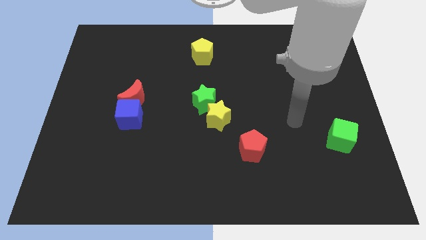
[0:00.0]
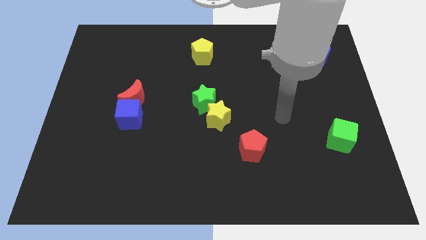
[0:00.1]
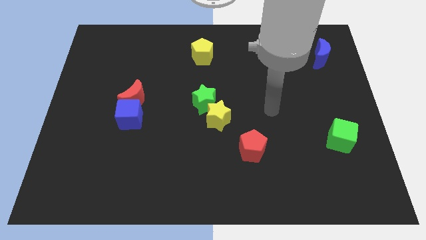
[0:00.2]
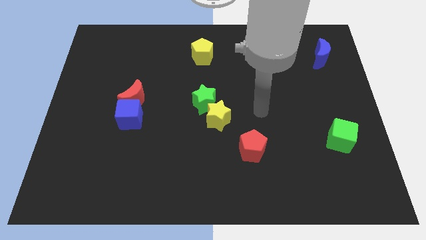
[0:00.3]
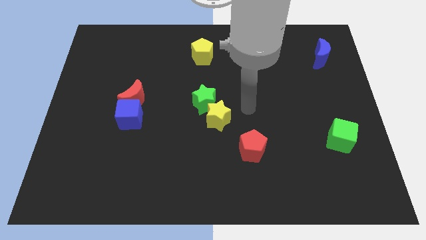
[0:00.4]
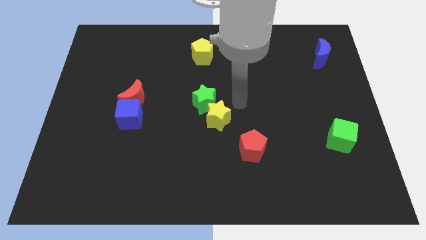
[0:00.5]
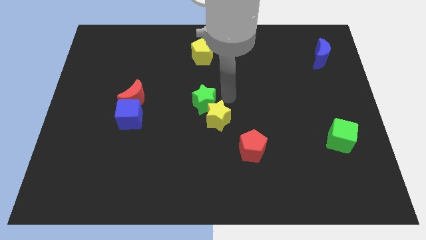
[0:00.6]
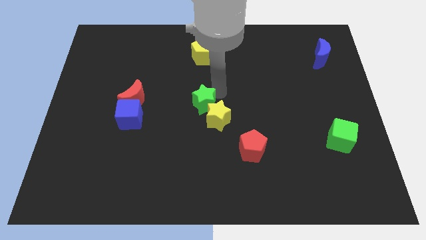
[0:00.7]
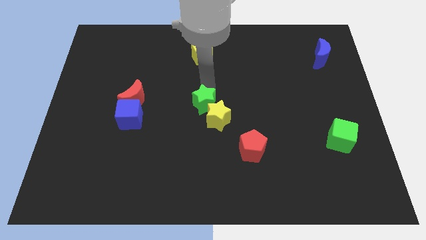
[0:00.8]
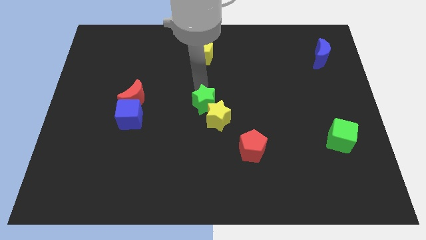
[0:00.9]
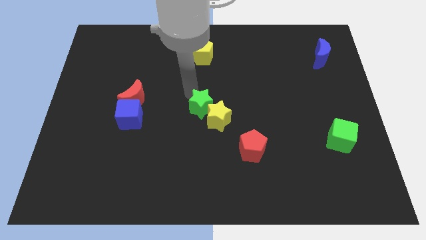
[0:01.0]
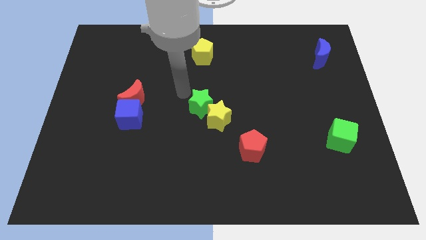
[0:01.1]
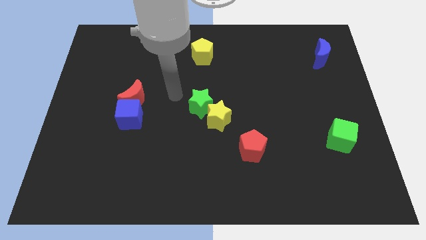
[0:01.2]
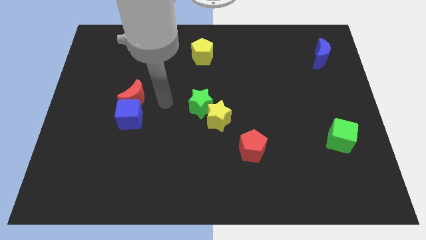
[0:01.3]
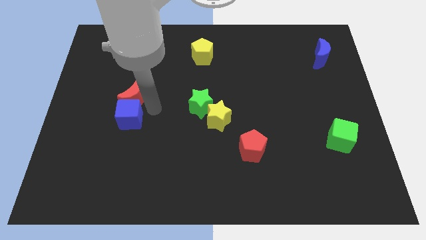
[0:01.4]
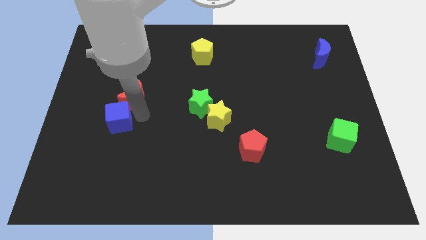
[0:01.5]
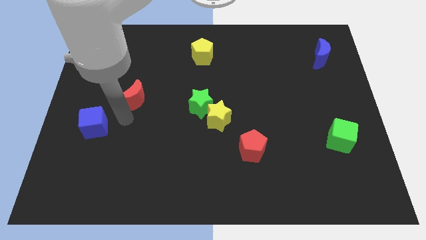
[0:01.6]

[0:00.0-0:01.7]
pull the red moon apart from the blue cube

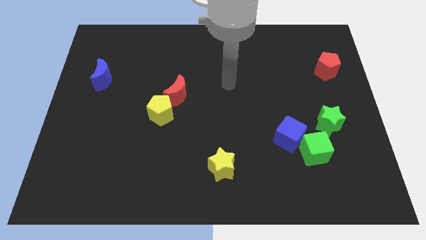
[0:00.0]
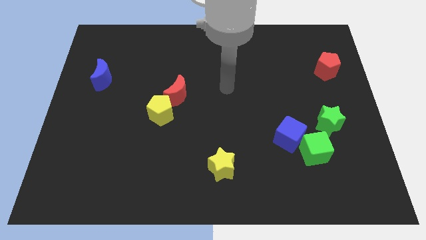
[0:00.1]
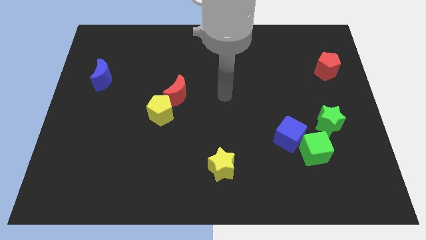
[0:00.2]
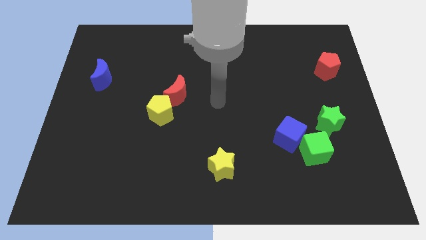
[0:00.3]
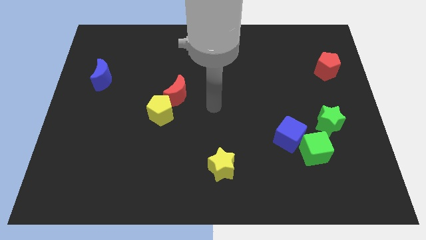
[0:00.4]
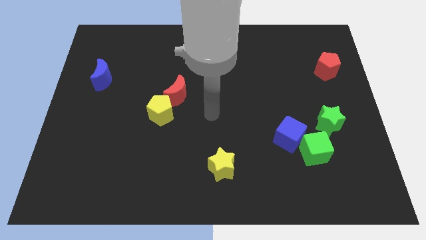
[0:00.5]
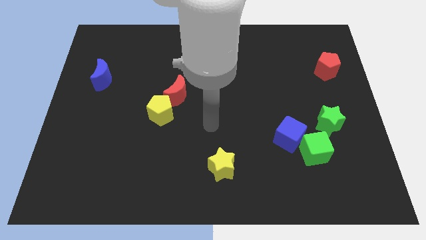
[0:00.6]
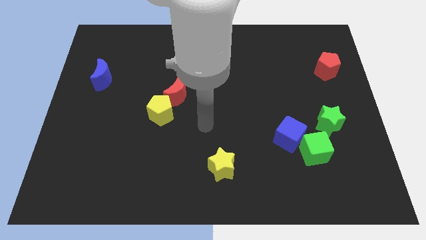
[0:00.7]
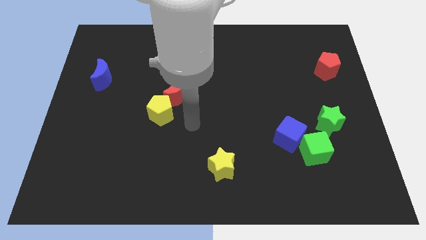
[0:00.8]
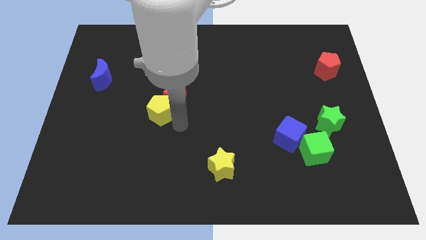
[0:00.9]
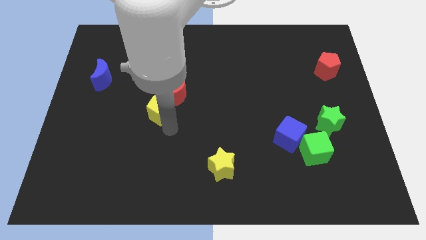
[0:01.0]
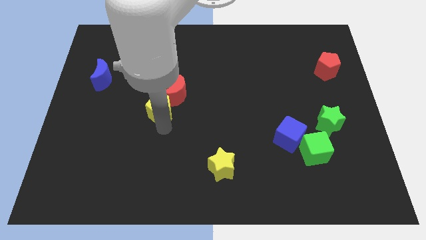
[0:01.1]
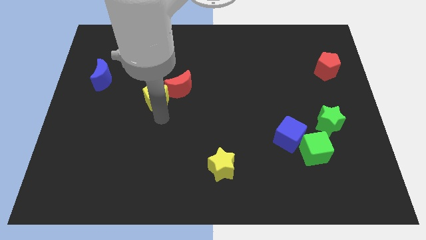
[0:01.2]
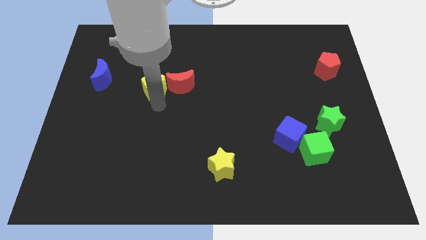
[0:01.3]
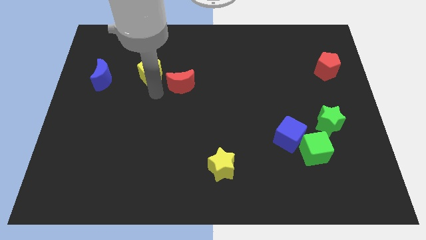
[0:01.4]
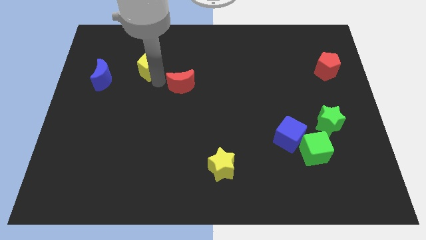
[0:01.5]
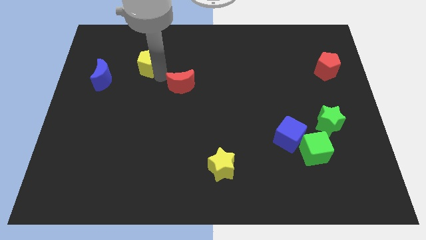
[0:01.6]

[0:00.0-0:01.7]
pull the red moon apart from the yellow pentagon

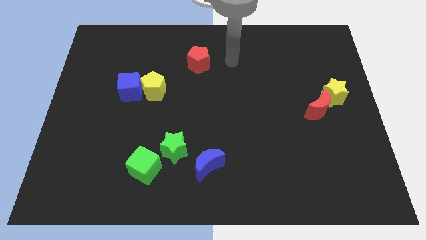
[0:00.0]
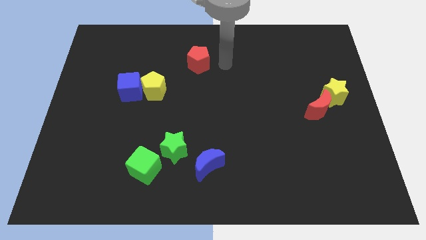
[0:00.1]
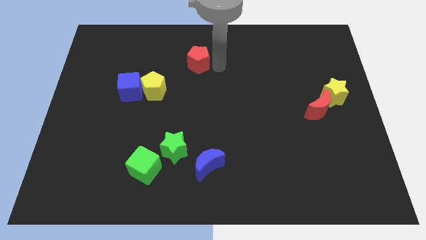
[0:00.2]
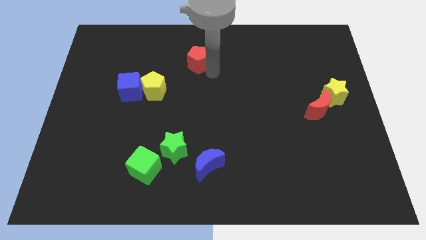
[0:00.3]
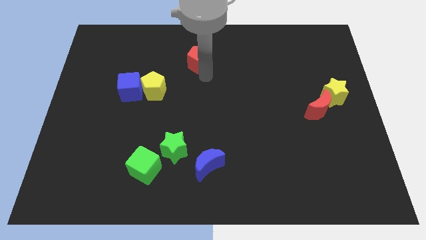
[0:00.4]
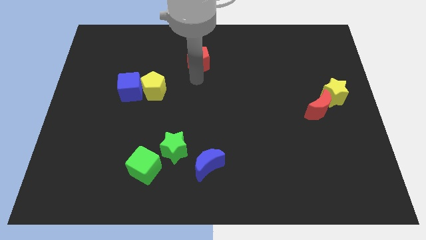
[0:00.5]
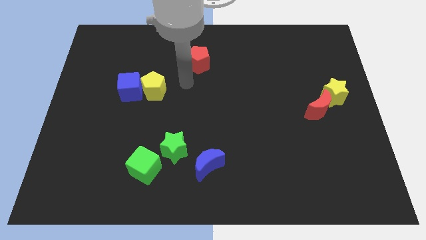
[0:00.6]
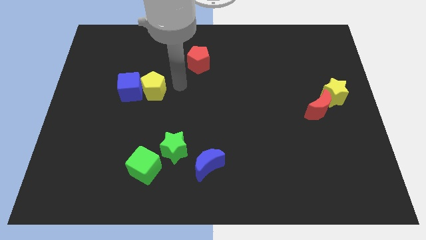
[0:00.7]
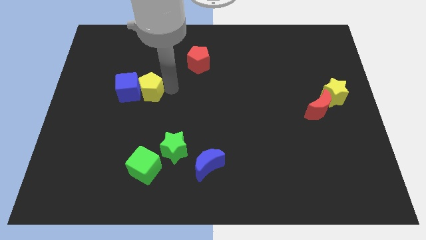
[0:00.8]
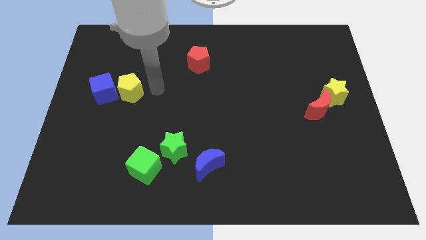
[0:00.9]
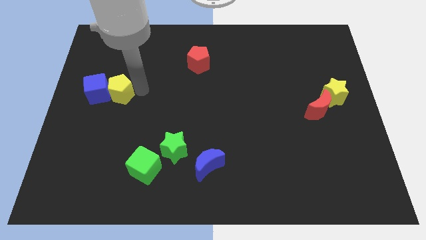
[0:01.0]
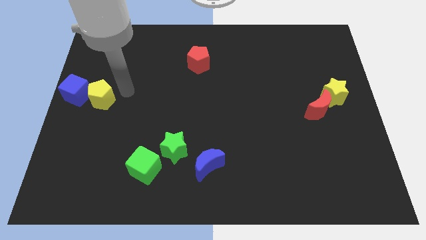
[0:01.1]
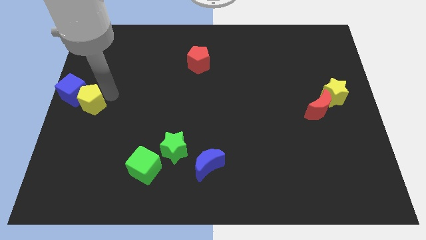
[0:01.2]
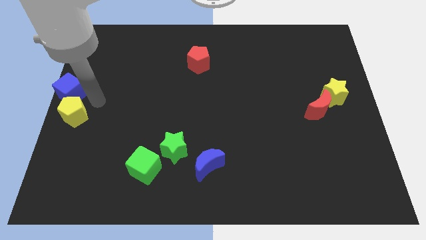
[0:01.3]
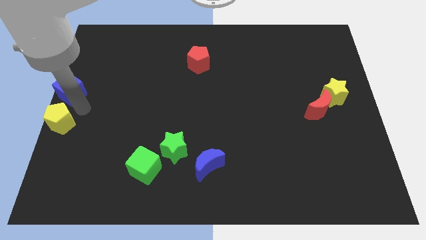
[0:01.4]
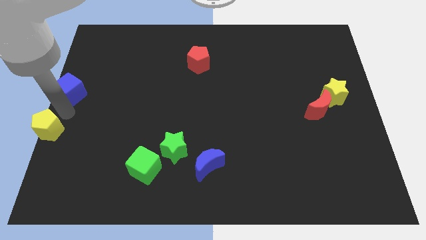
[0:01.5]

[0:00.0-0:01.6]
separate the blue cube from the yellow pentagon

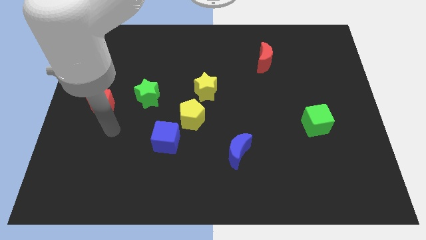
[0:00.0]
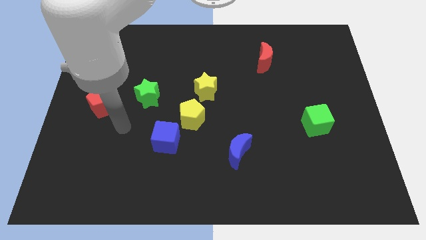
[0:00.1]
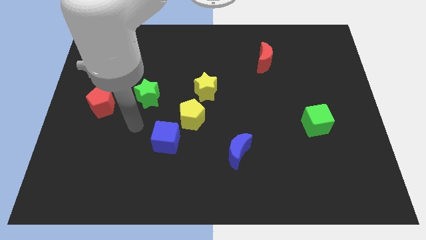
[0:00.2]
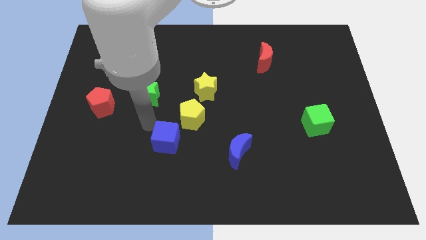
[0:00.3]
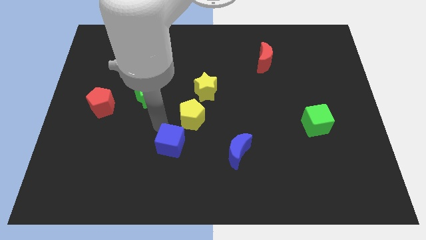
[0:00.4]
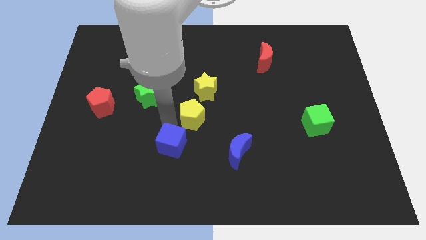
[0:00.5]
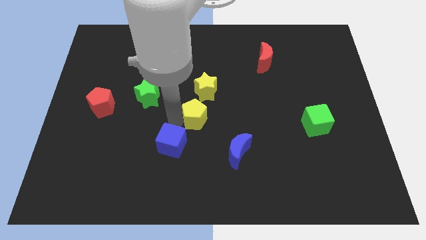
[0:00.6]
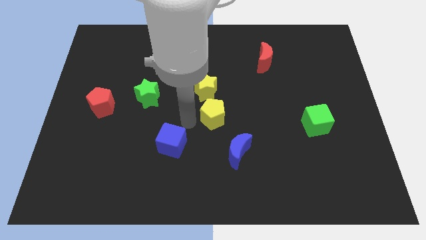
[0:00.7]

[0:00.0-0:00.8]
move the blue cube away from the yellow pentagon

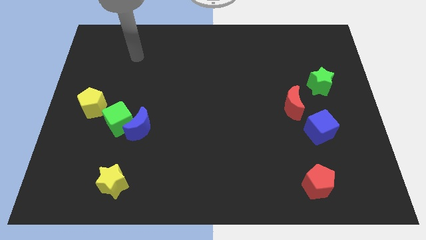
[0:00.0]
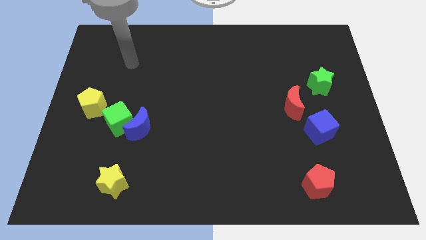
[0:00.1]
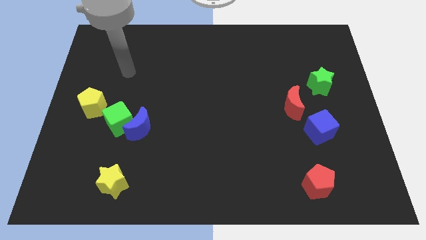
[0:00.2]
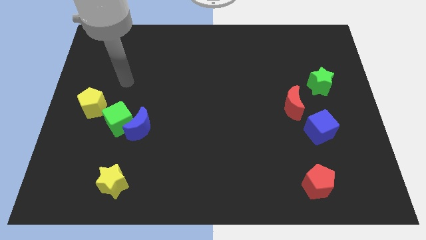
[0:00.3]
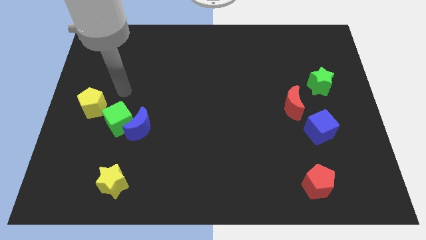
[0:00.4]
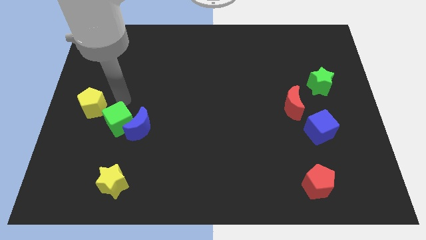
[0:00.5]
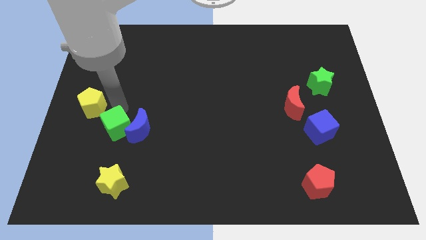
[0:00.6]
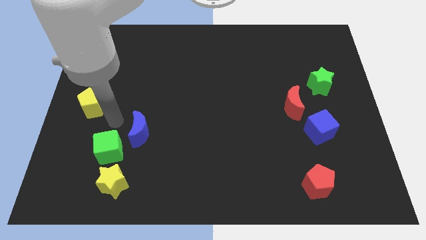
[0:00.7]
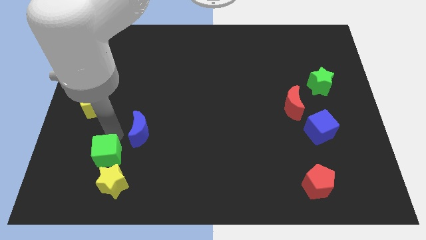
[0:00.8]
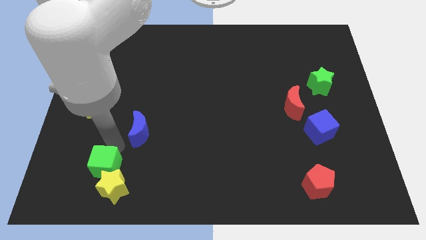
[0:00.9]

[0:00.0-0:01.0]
move the blue moon away from the green cube

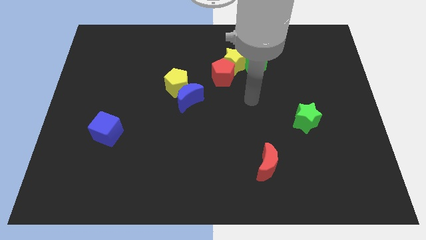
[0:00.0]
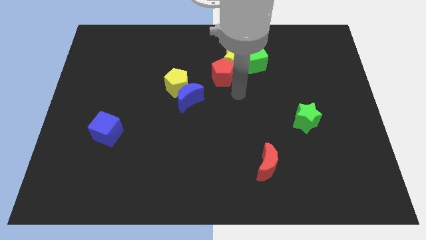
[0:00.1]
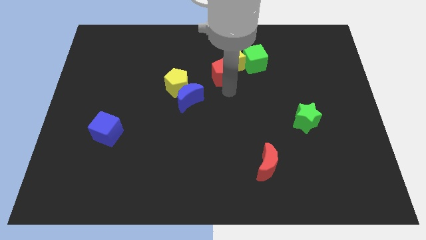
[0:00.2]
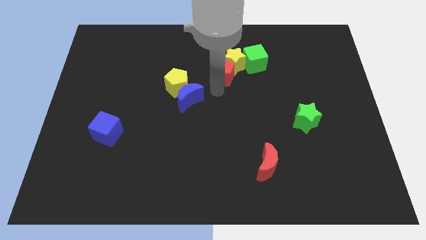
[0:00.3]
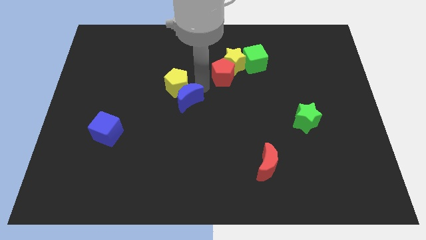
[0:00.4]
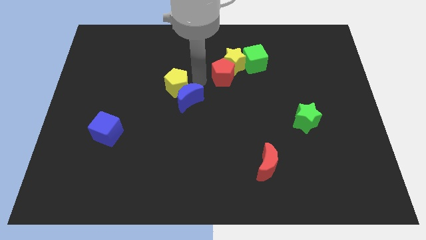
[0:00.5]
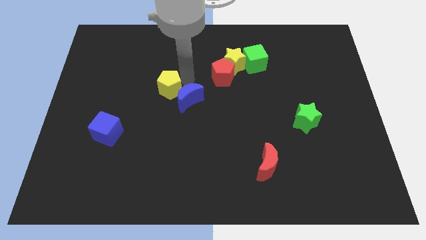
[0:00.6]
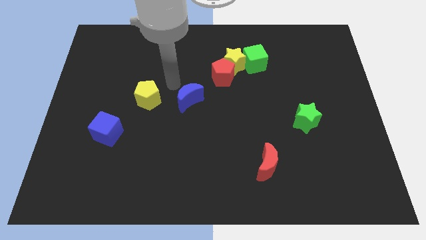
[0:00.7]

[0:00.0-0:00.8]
separate the blue moon from the yellow pentagon

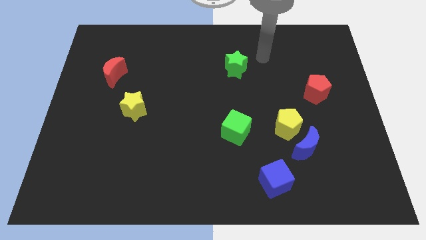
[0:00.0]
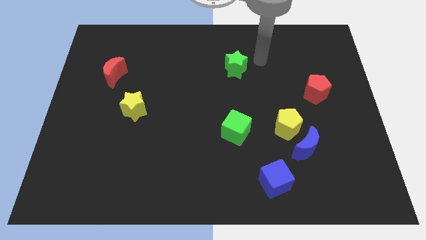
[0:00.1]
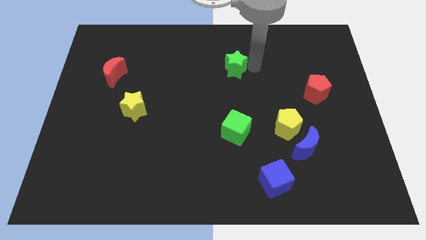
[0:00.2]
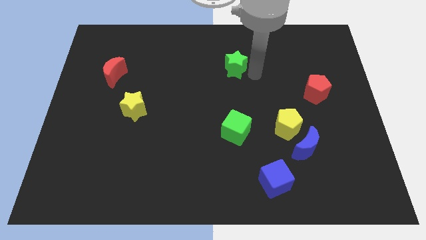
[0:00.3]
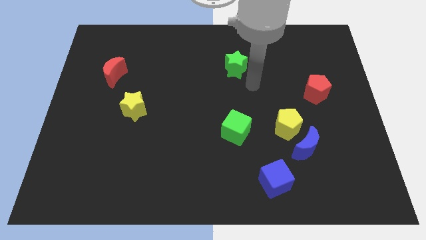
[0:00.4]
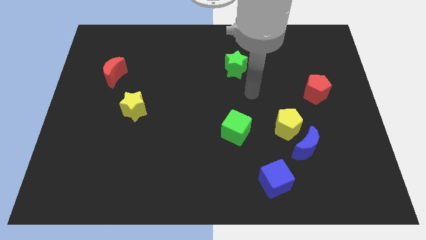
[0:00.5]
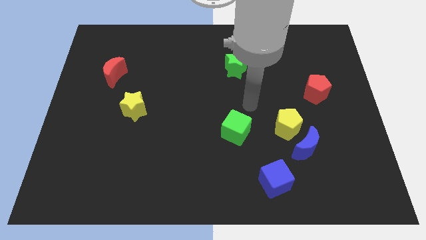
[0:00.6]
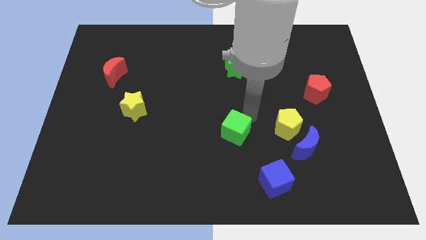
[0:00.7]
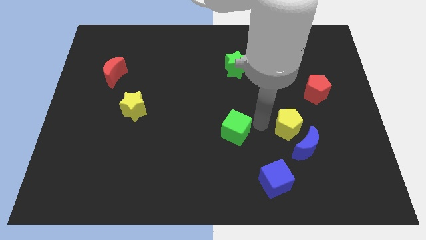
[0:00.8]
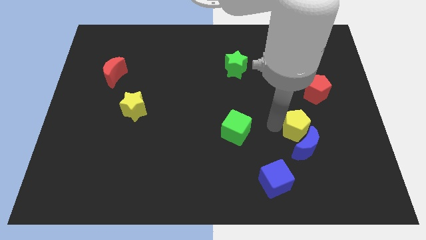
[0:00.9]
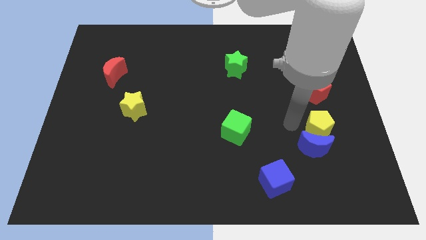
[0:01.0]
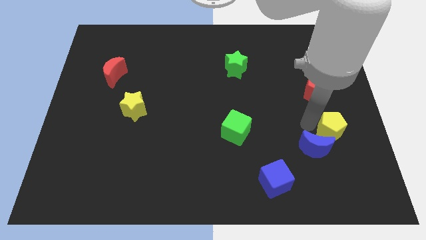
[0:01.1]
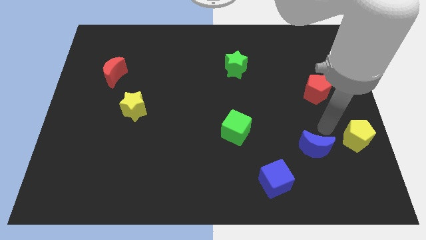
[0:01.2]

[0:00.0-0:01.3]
pull the blue moon apart from the yellow pentagon

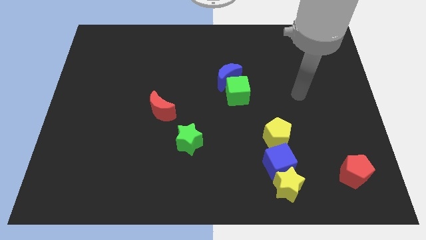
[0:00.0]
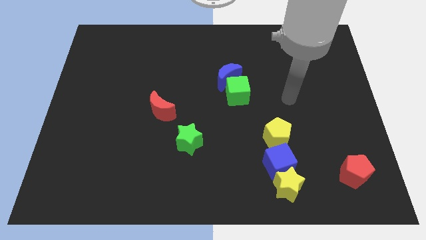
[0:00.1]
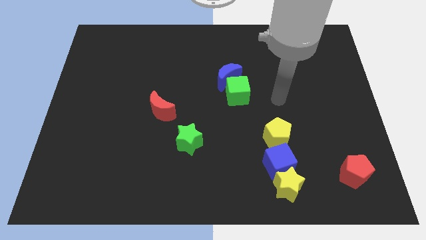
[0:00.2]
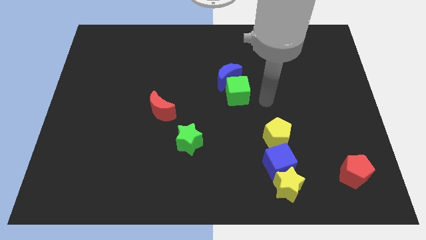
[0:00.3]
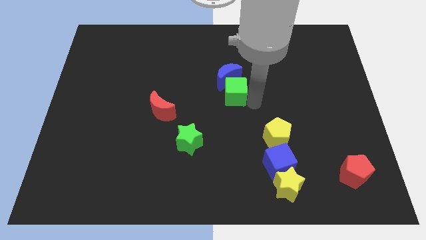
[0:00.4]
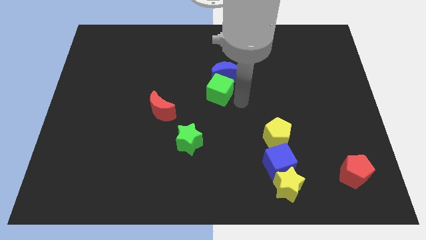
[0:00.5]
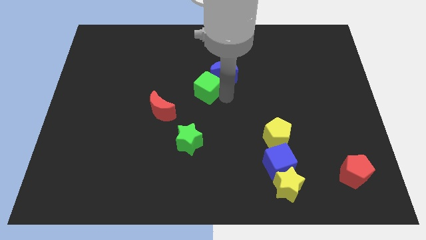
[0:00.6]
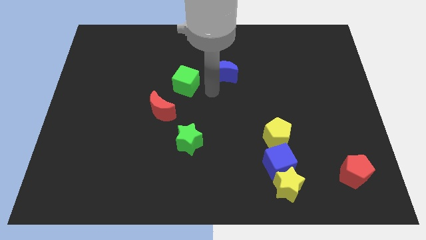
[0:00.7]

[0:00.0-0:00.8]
separate the blue moon from the green cube
